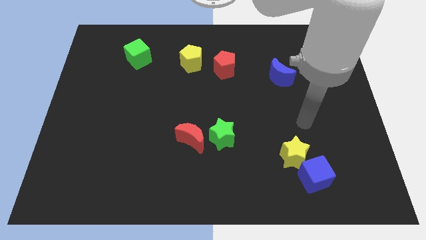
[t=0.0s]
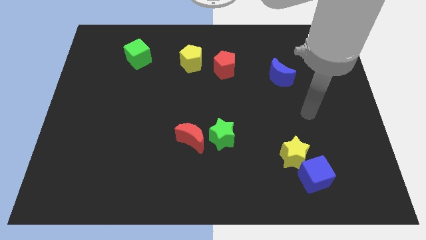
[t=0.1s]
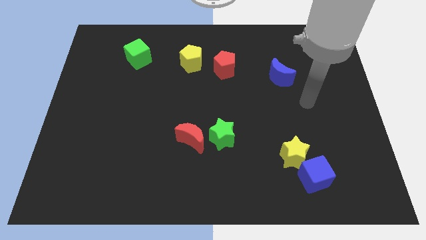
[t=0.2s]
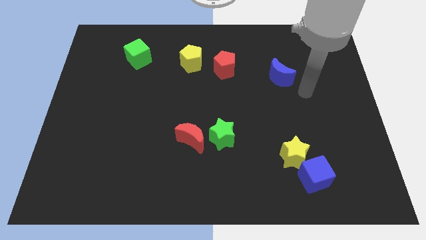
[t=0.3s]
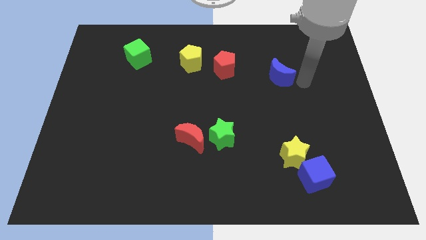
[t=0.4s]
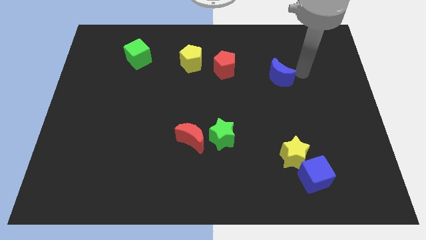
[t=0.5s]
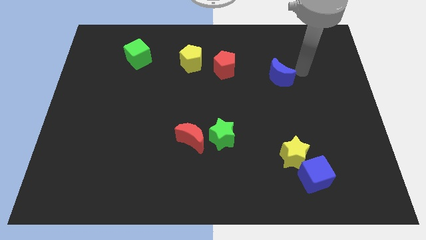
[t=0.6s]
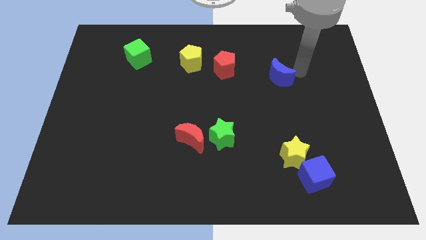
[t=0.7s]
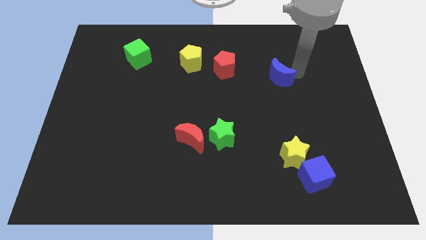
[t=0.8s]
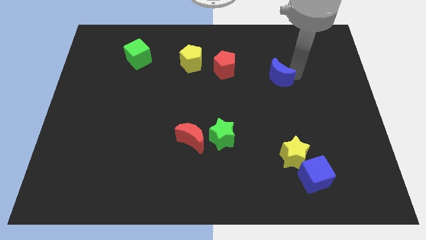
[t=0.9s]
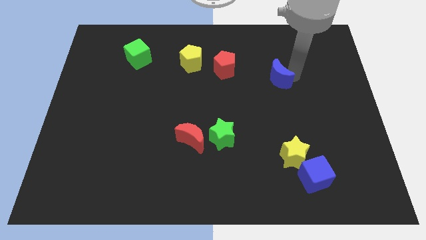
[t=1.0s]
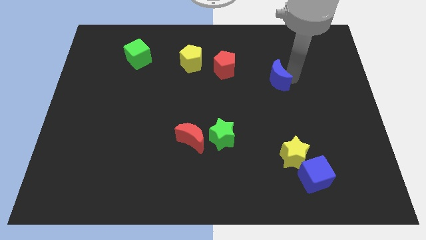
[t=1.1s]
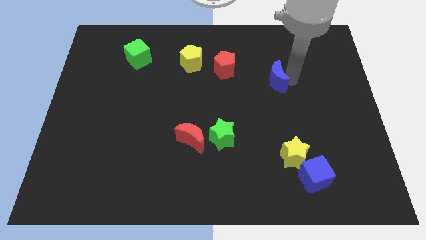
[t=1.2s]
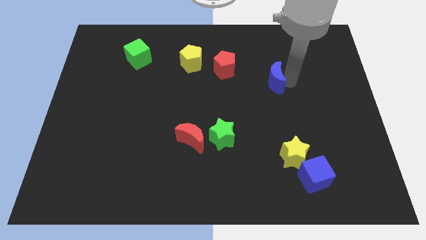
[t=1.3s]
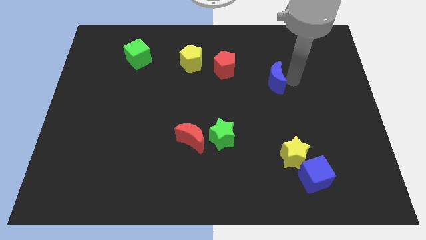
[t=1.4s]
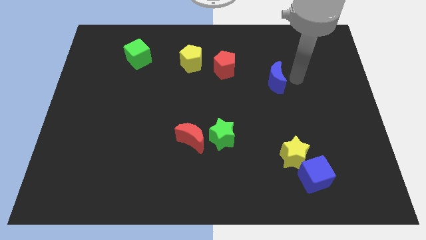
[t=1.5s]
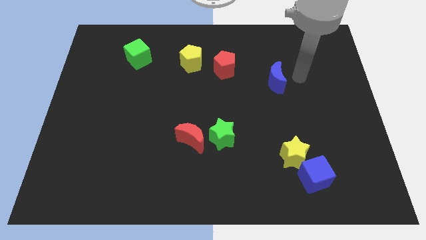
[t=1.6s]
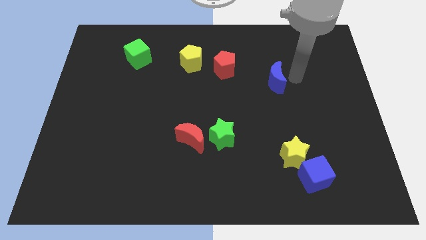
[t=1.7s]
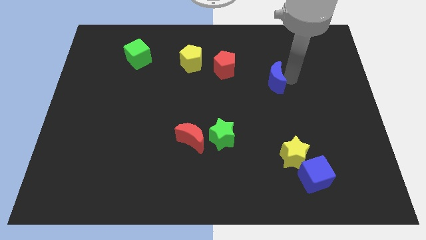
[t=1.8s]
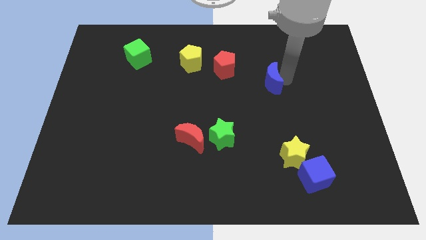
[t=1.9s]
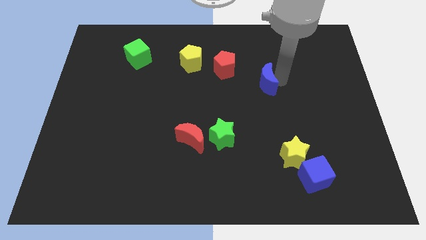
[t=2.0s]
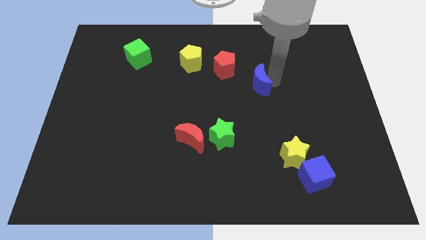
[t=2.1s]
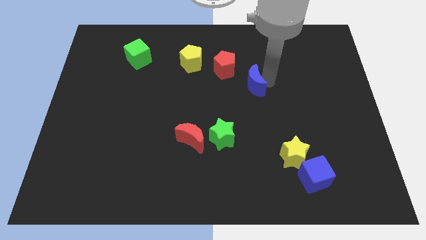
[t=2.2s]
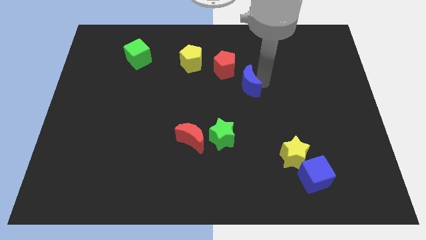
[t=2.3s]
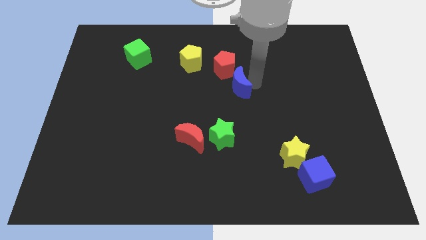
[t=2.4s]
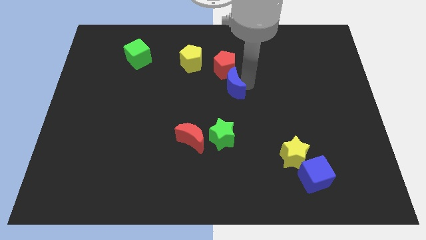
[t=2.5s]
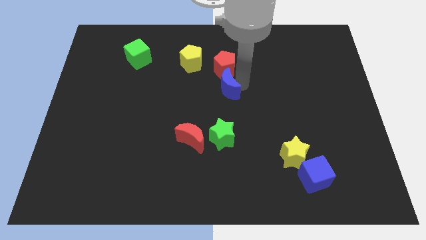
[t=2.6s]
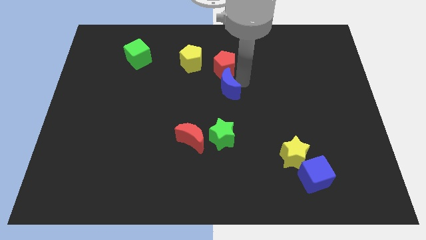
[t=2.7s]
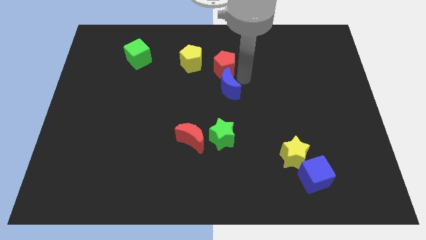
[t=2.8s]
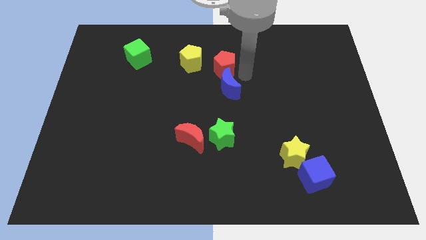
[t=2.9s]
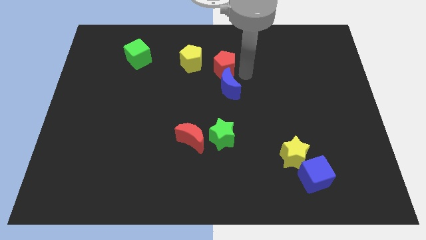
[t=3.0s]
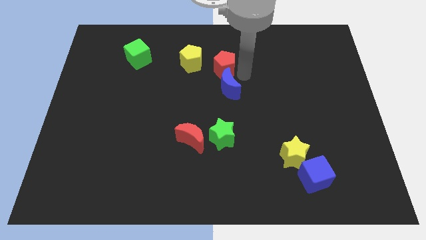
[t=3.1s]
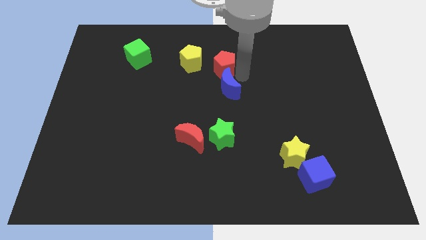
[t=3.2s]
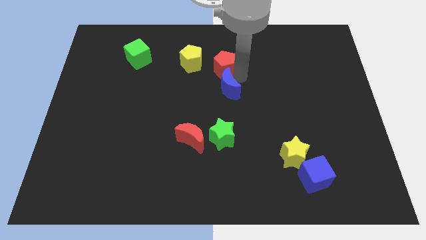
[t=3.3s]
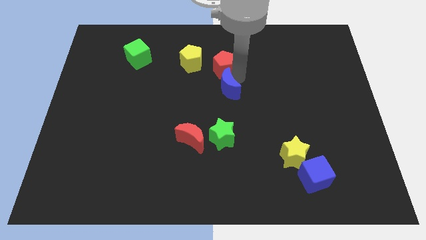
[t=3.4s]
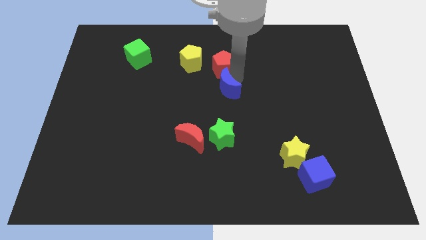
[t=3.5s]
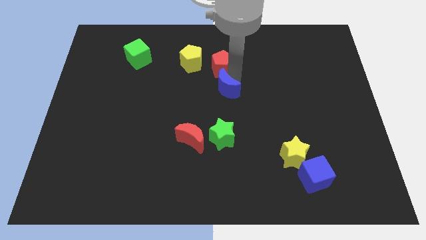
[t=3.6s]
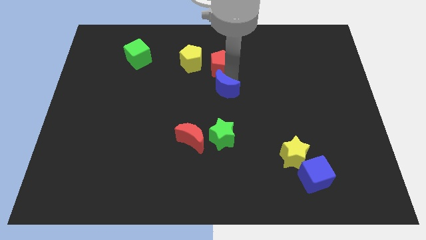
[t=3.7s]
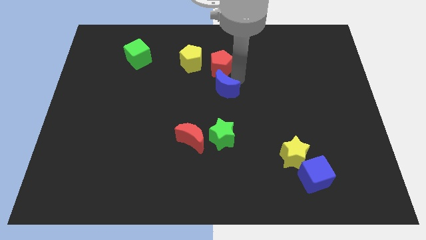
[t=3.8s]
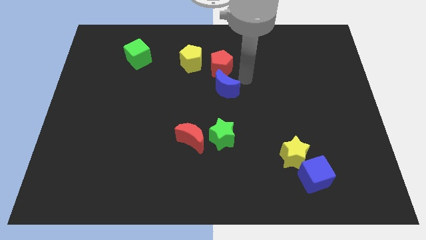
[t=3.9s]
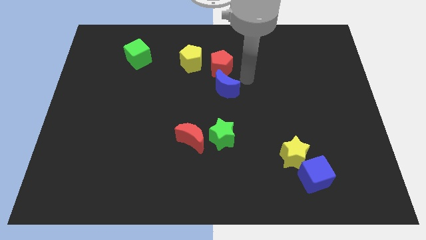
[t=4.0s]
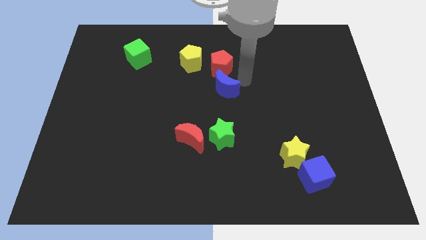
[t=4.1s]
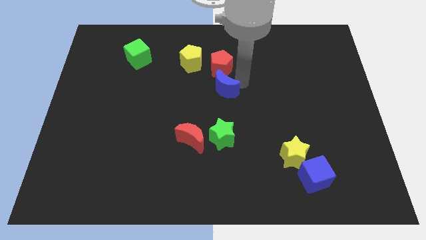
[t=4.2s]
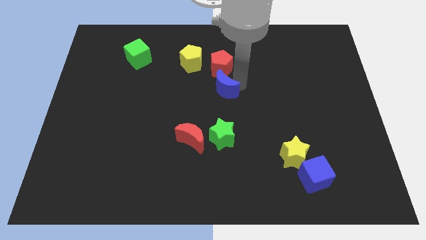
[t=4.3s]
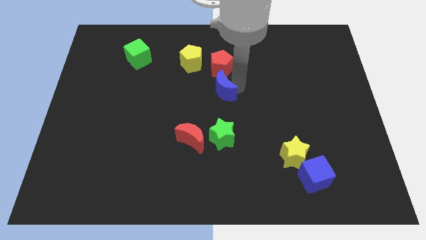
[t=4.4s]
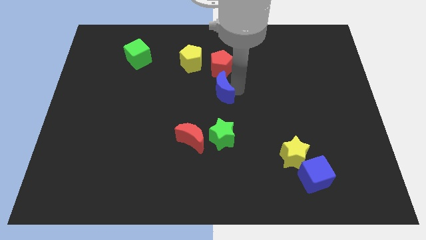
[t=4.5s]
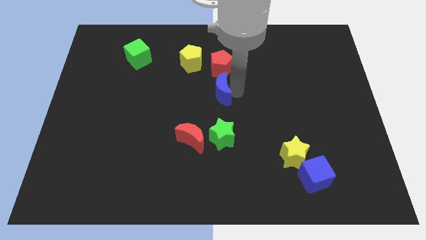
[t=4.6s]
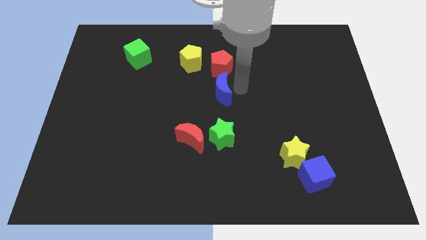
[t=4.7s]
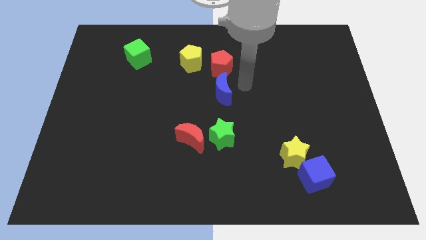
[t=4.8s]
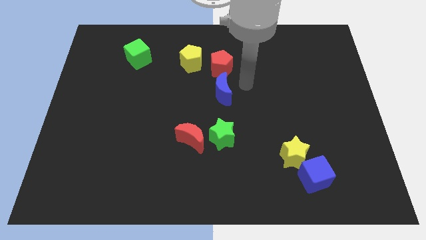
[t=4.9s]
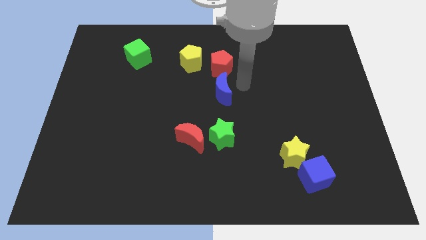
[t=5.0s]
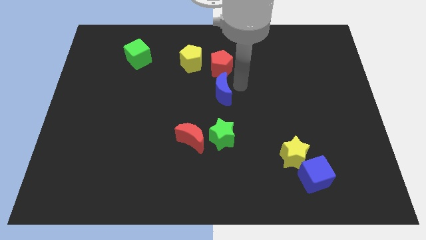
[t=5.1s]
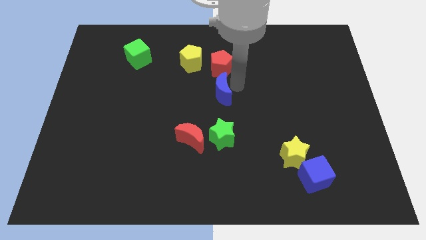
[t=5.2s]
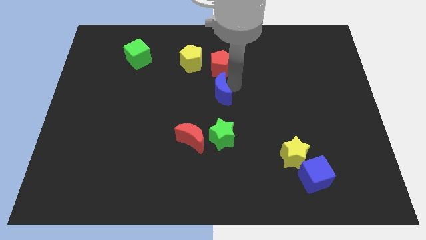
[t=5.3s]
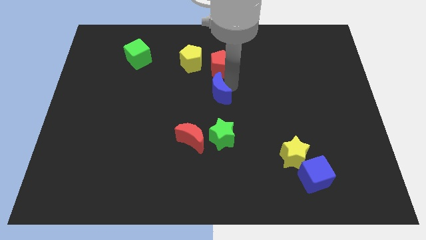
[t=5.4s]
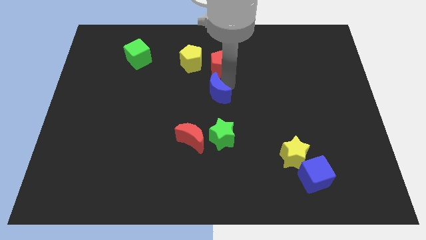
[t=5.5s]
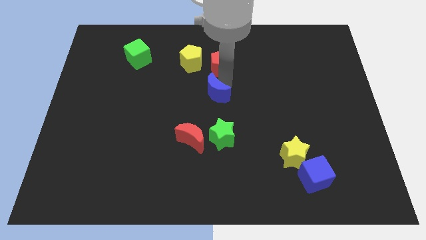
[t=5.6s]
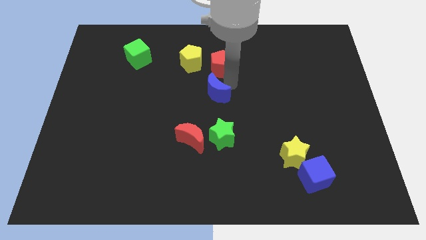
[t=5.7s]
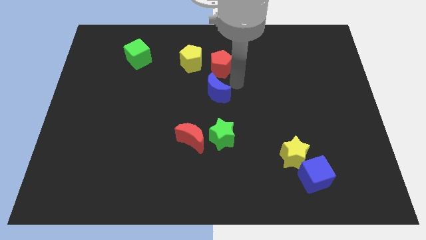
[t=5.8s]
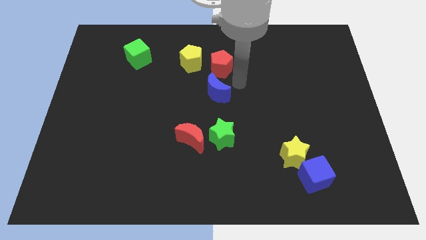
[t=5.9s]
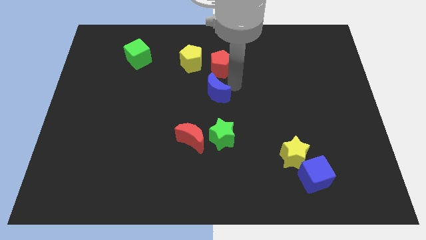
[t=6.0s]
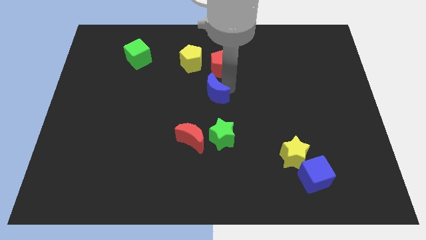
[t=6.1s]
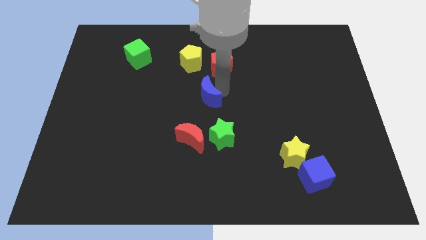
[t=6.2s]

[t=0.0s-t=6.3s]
slide the blue moon to the top of the red moon

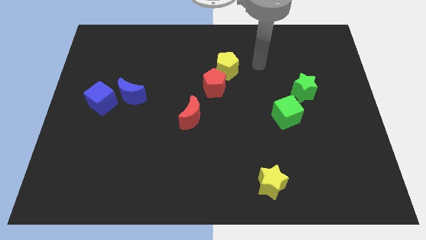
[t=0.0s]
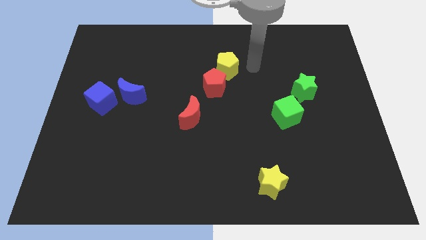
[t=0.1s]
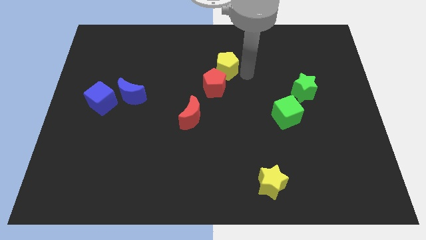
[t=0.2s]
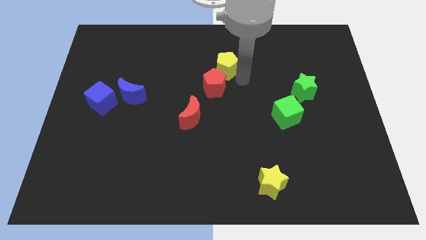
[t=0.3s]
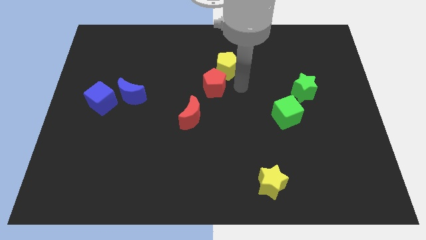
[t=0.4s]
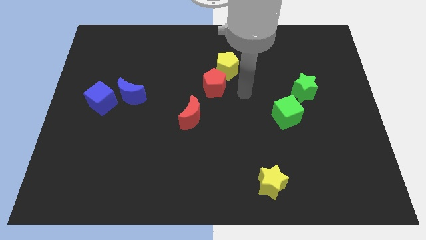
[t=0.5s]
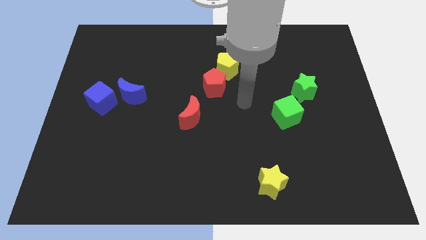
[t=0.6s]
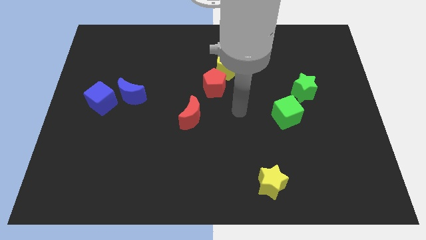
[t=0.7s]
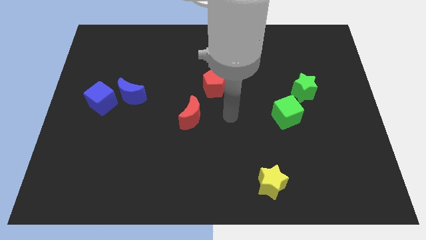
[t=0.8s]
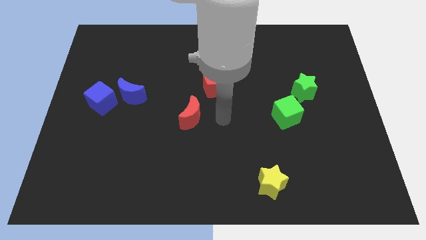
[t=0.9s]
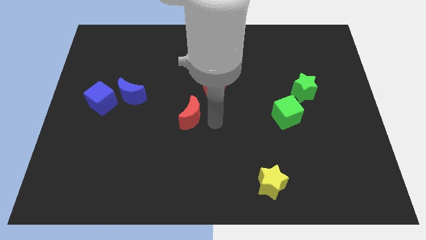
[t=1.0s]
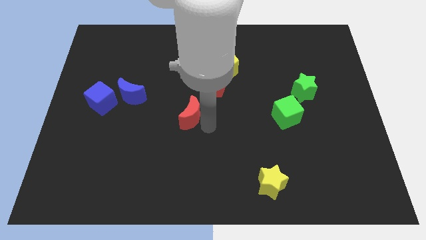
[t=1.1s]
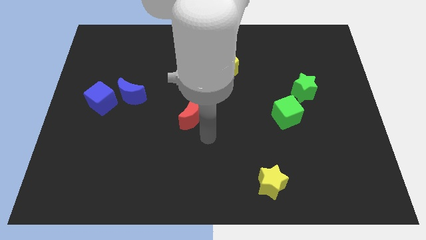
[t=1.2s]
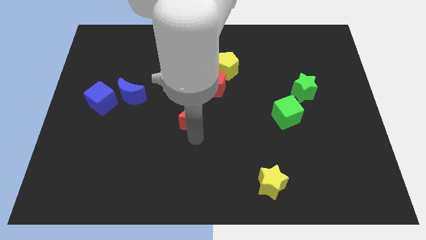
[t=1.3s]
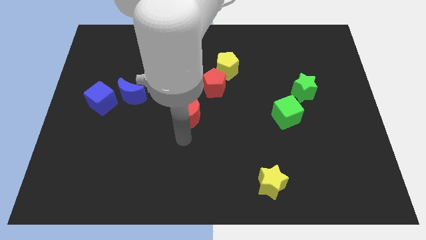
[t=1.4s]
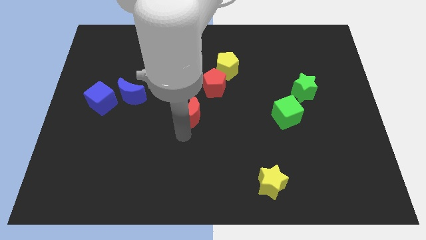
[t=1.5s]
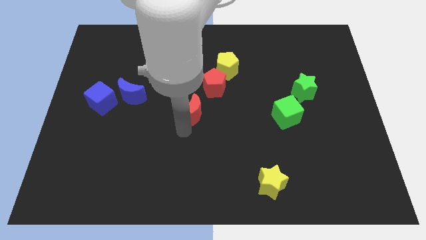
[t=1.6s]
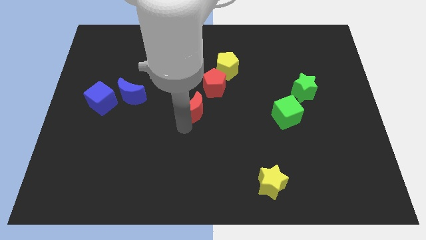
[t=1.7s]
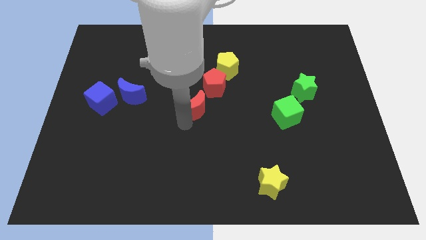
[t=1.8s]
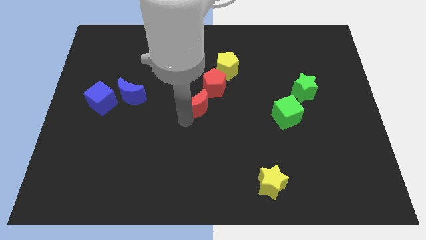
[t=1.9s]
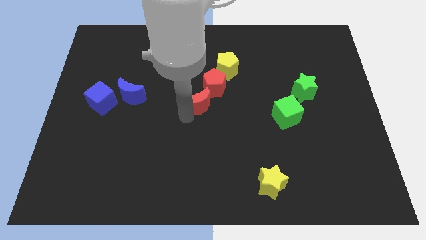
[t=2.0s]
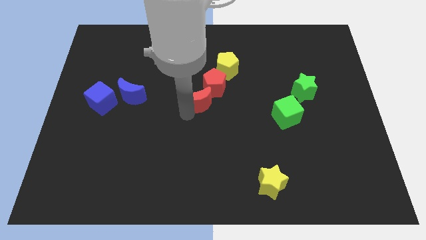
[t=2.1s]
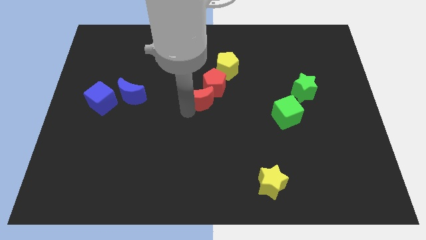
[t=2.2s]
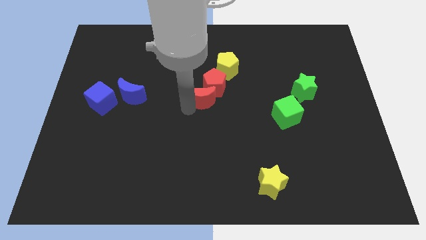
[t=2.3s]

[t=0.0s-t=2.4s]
put the red moon to the bottom left of the yellow pentagon

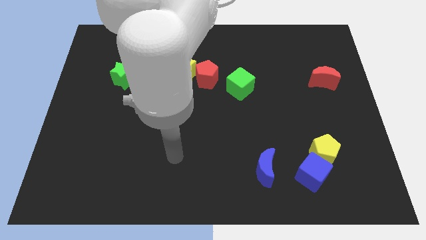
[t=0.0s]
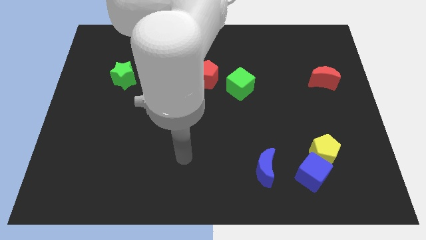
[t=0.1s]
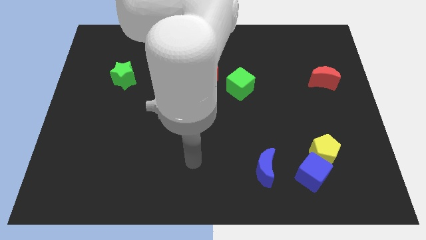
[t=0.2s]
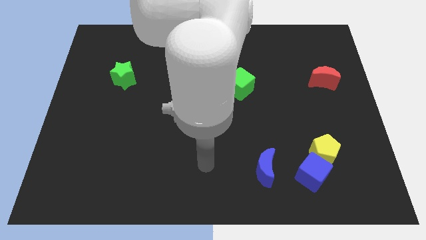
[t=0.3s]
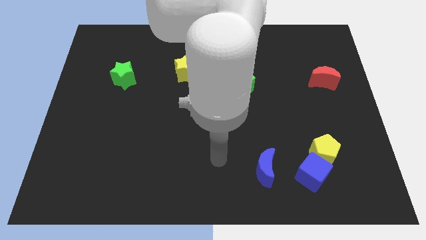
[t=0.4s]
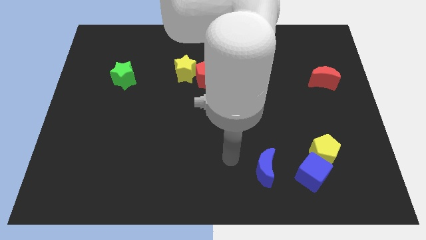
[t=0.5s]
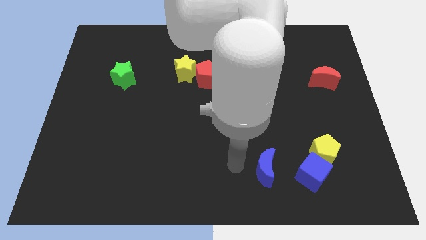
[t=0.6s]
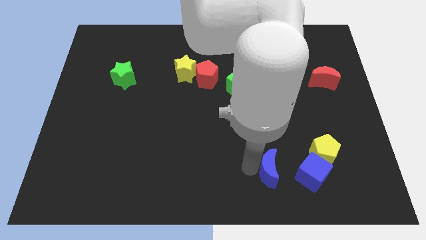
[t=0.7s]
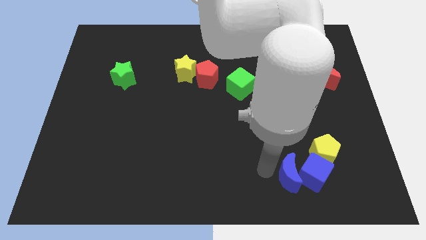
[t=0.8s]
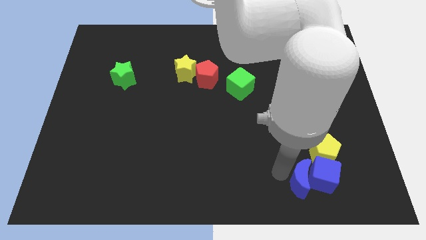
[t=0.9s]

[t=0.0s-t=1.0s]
put the blue cube to the bottom right of the yellow pentagon
